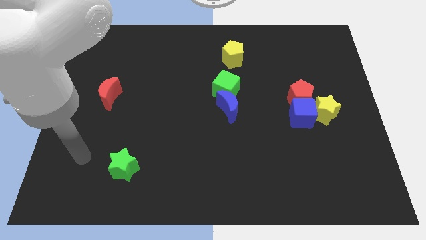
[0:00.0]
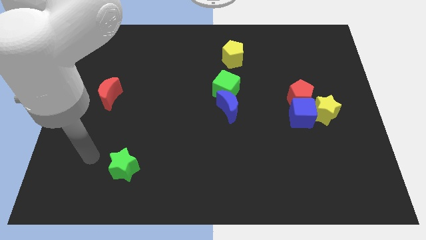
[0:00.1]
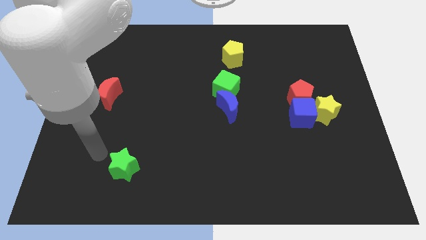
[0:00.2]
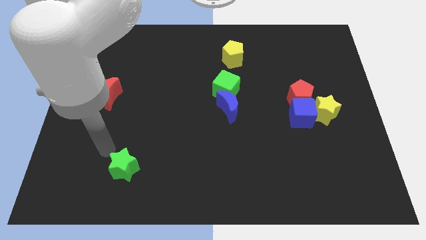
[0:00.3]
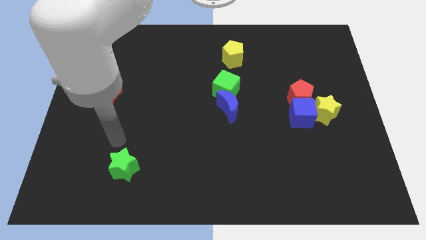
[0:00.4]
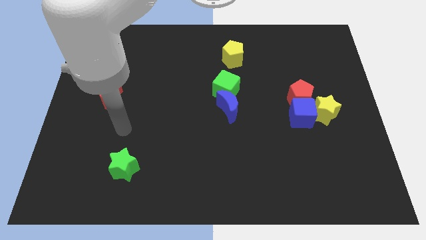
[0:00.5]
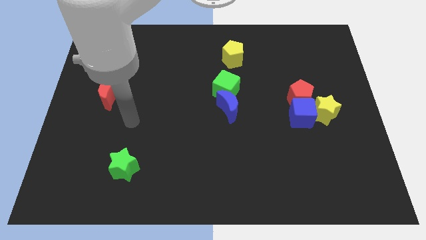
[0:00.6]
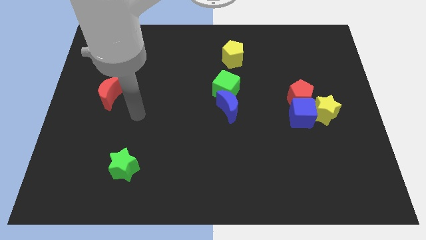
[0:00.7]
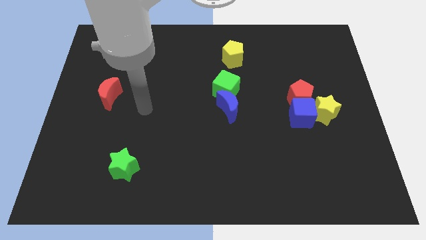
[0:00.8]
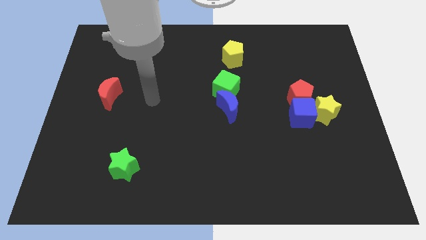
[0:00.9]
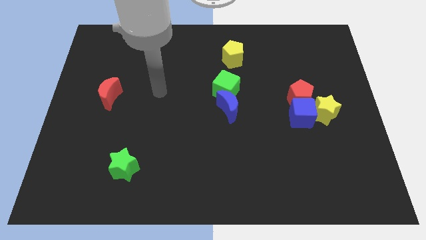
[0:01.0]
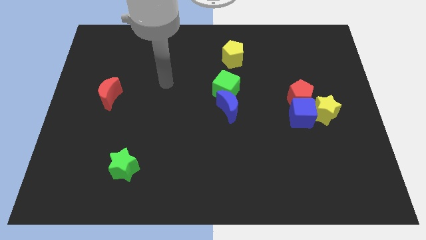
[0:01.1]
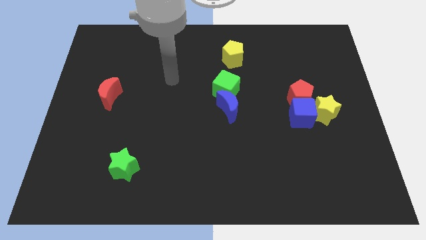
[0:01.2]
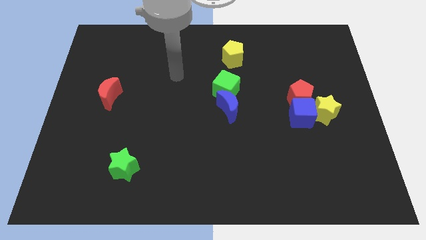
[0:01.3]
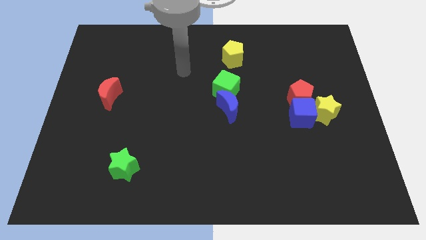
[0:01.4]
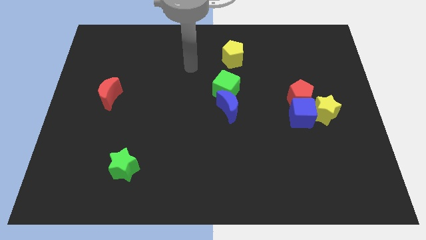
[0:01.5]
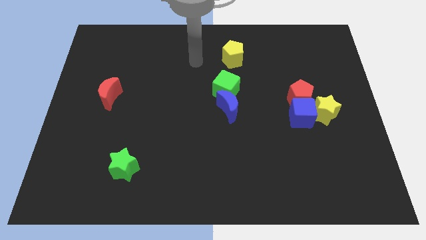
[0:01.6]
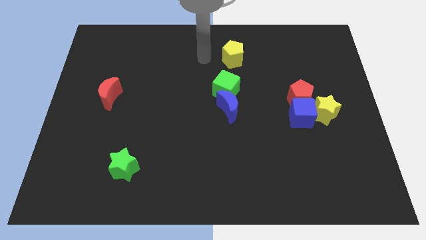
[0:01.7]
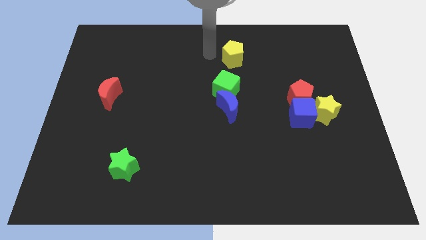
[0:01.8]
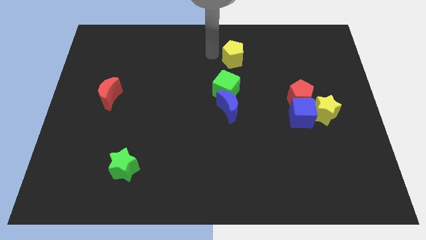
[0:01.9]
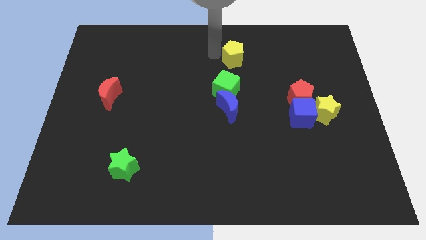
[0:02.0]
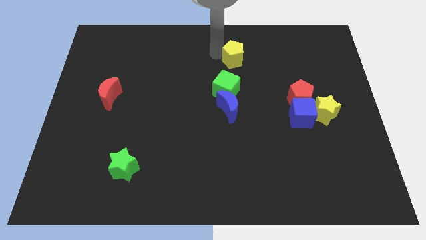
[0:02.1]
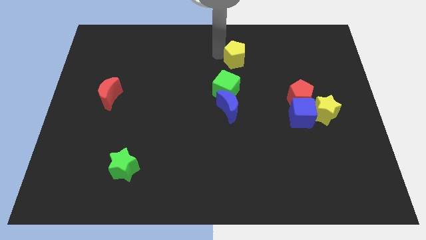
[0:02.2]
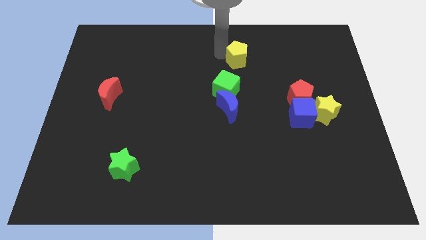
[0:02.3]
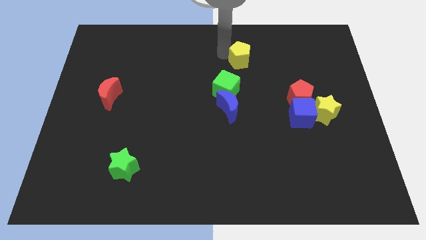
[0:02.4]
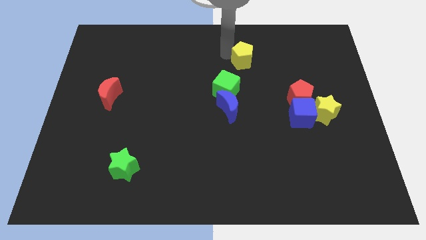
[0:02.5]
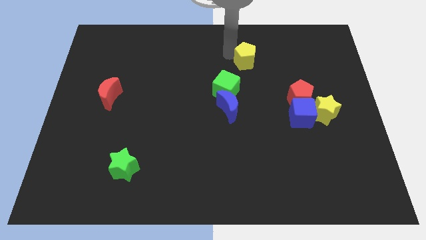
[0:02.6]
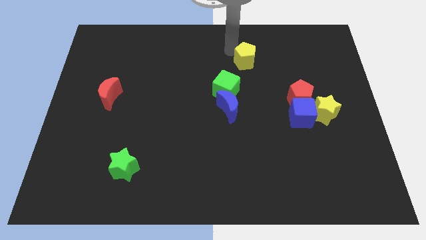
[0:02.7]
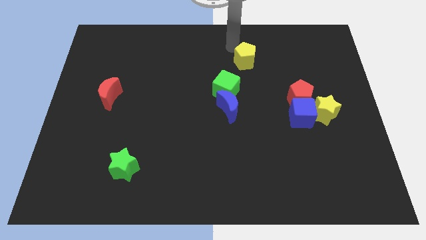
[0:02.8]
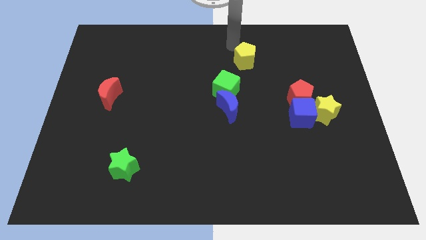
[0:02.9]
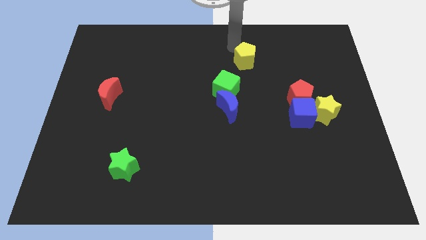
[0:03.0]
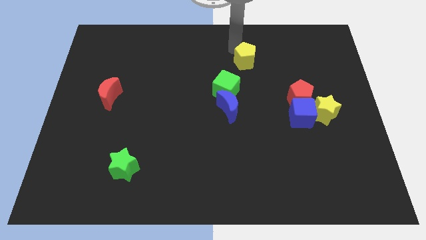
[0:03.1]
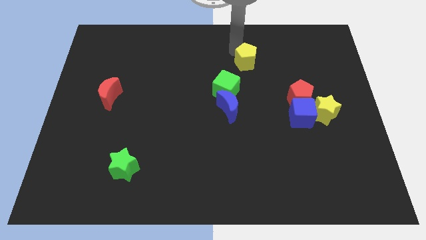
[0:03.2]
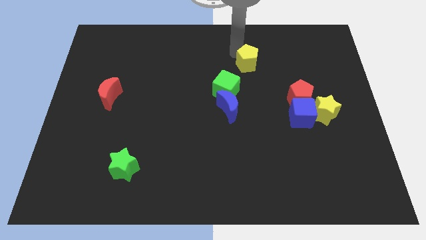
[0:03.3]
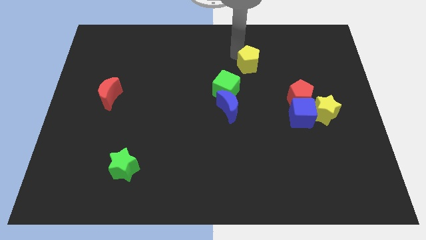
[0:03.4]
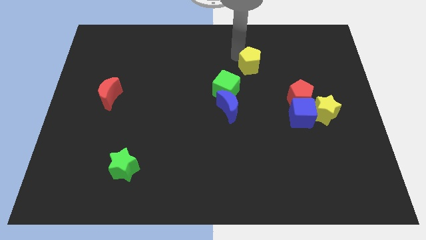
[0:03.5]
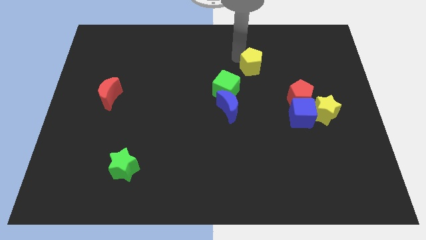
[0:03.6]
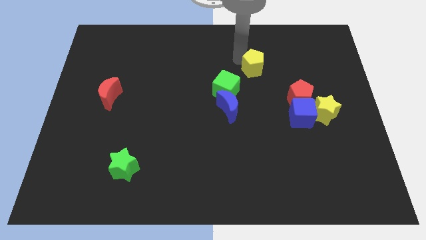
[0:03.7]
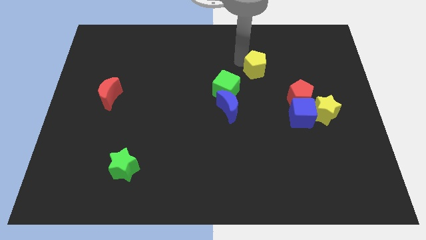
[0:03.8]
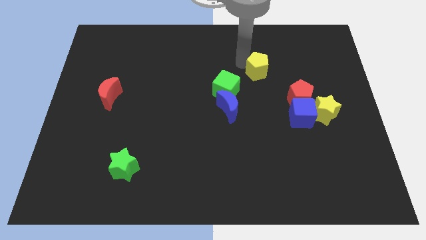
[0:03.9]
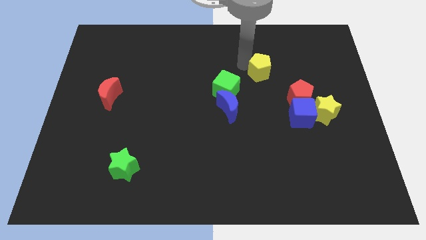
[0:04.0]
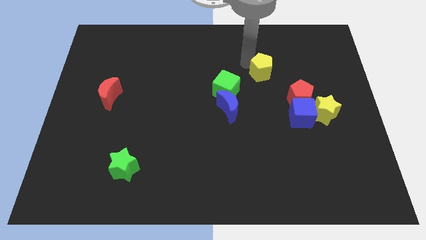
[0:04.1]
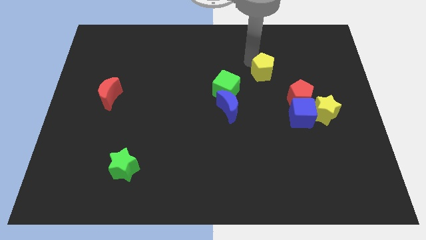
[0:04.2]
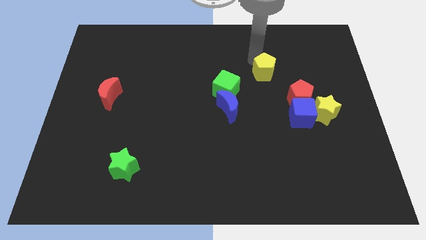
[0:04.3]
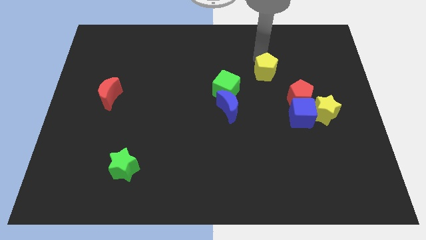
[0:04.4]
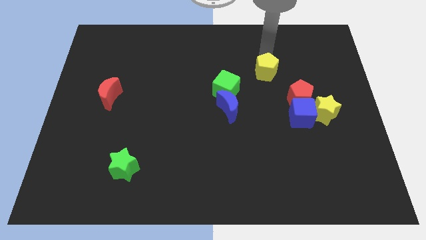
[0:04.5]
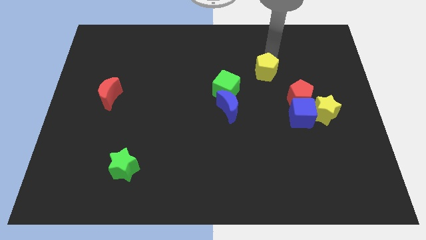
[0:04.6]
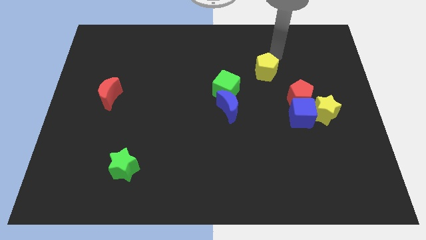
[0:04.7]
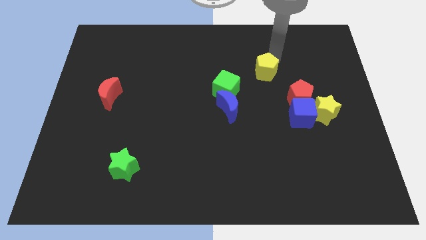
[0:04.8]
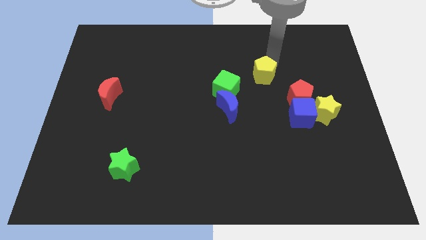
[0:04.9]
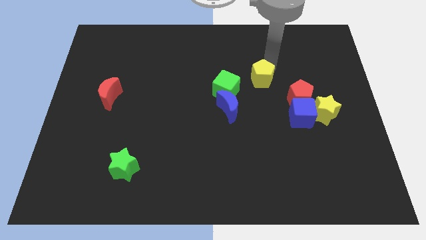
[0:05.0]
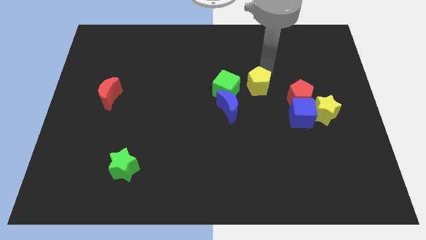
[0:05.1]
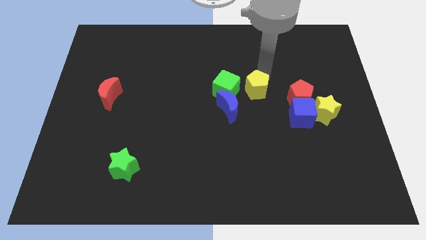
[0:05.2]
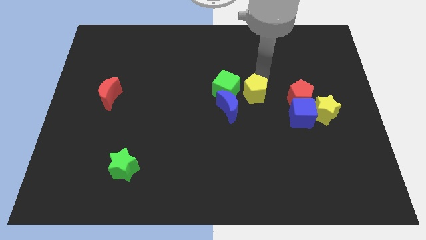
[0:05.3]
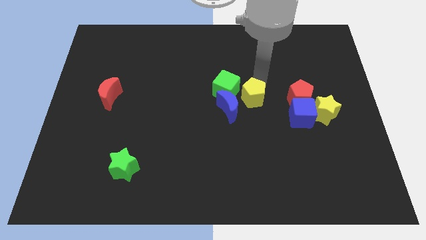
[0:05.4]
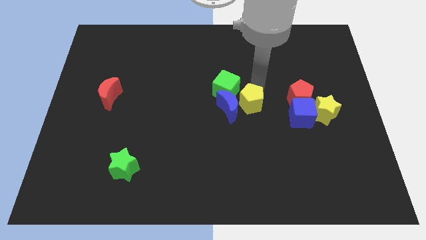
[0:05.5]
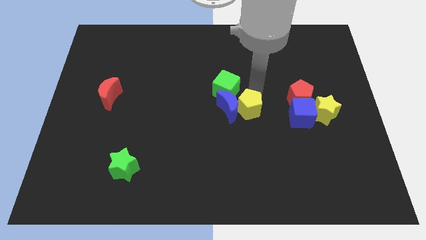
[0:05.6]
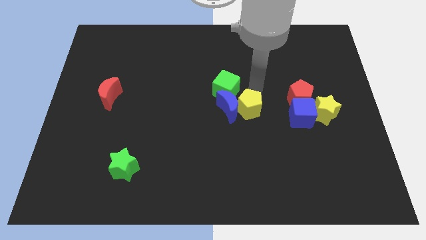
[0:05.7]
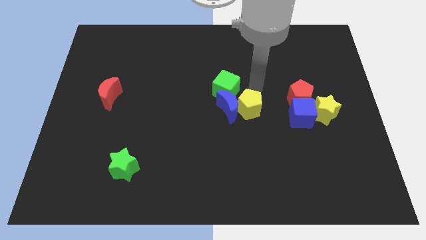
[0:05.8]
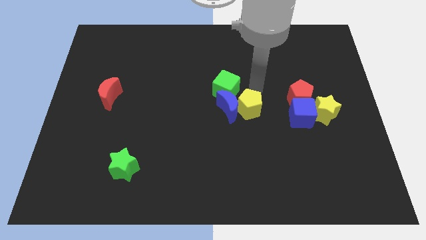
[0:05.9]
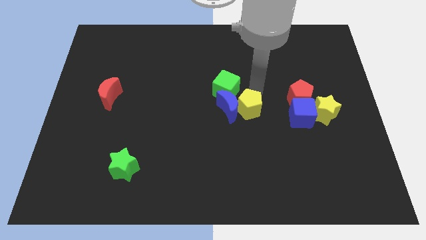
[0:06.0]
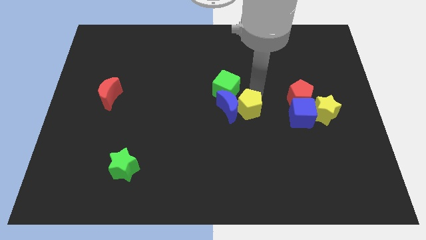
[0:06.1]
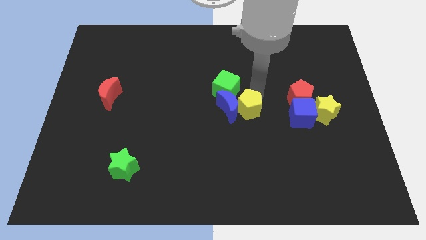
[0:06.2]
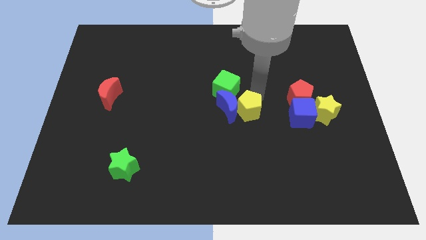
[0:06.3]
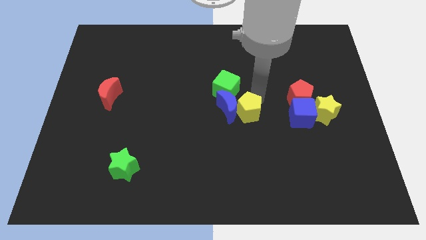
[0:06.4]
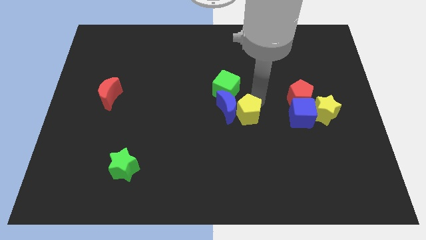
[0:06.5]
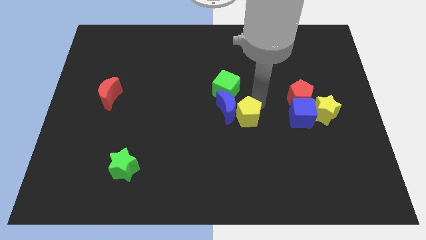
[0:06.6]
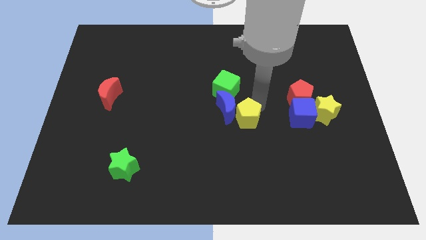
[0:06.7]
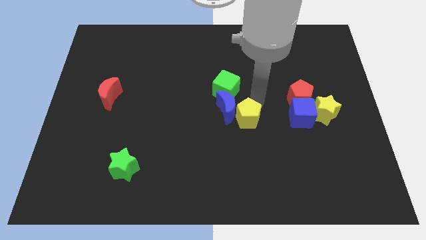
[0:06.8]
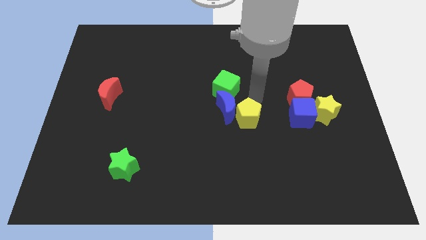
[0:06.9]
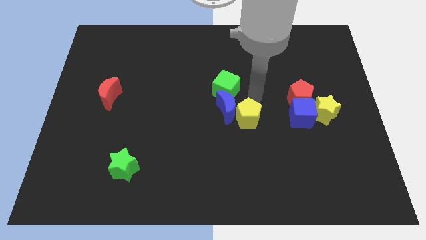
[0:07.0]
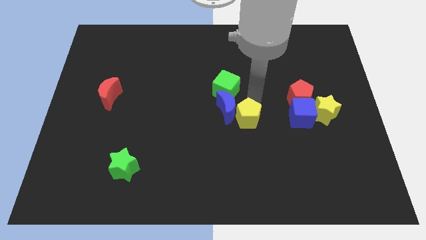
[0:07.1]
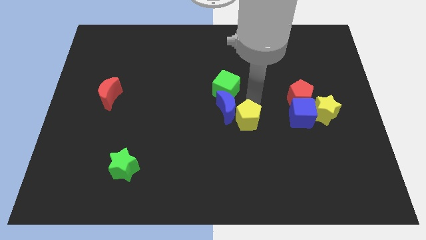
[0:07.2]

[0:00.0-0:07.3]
push the yellow pentagon down

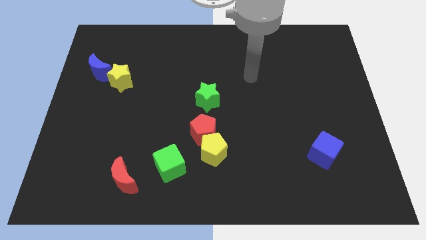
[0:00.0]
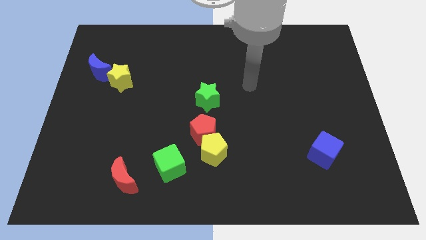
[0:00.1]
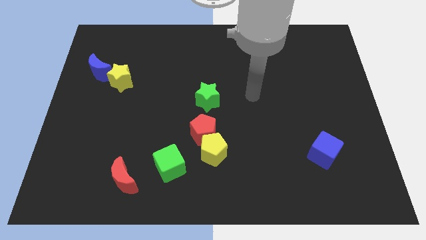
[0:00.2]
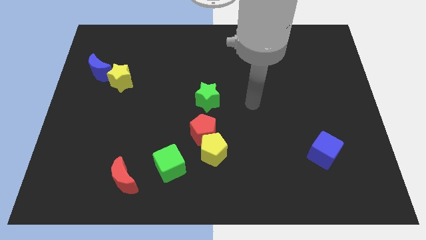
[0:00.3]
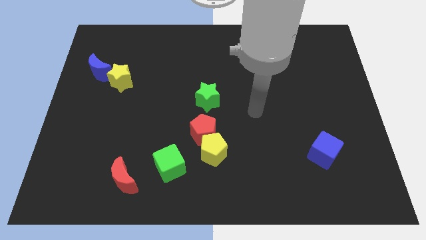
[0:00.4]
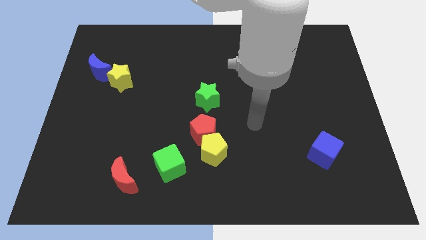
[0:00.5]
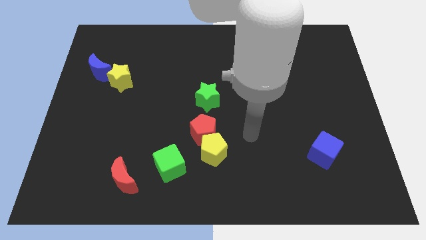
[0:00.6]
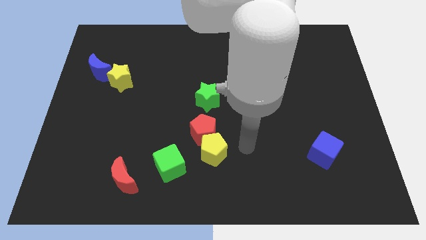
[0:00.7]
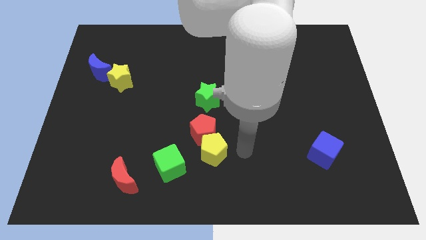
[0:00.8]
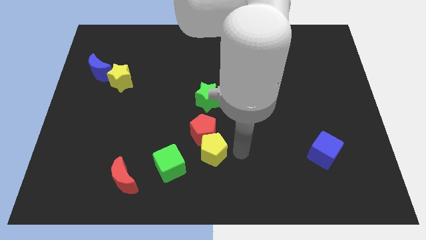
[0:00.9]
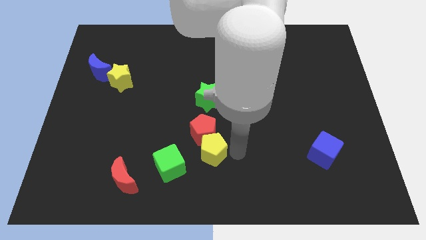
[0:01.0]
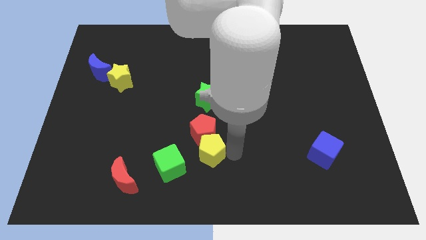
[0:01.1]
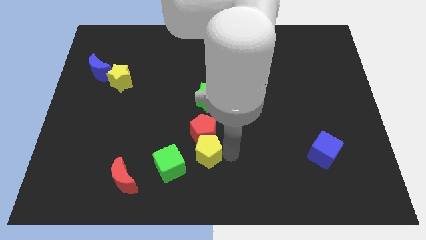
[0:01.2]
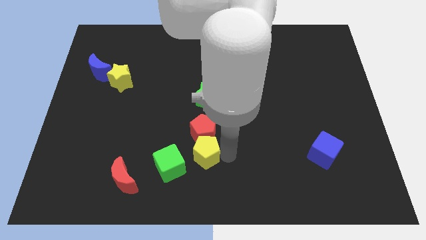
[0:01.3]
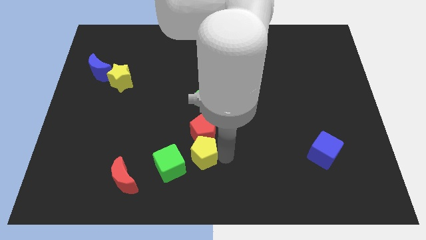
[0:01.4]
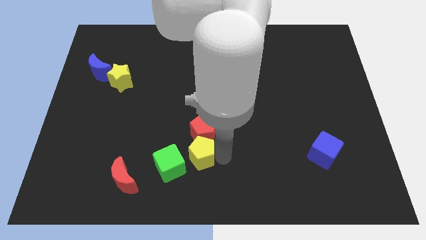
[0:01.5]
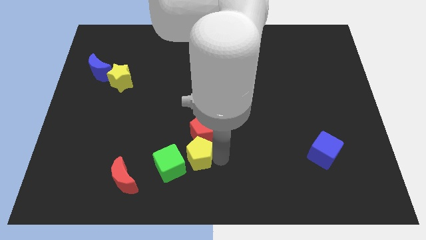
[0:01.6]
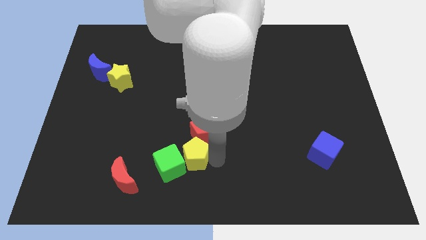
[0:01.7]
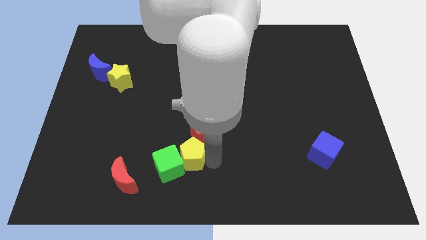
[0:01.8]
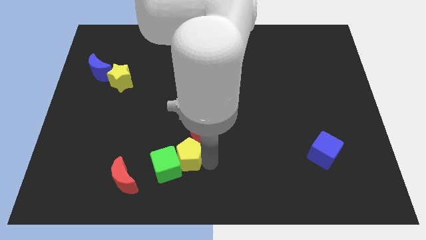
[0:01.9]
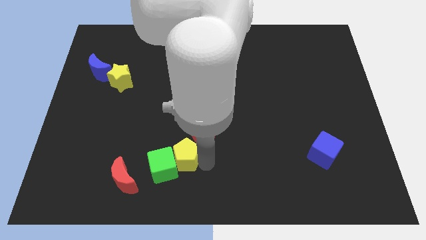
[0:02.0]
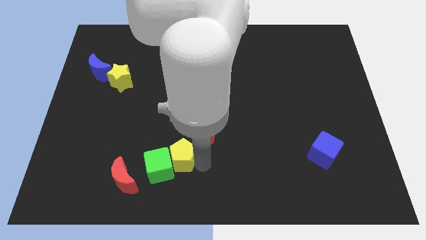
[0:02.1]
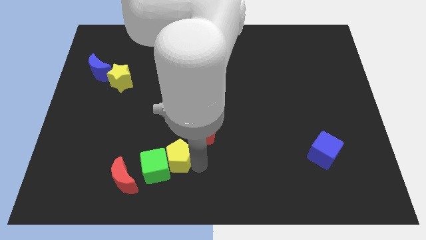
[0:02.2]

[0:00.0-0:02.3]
push the yellow pentagon to the left a little bit
